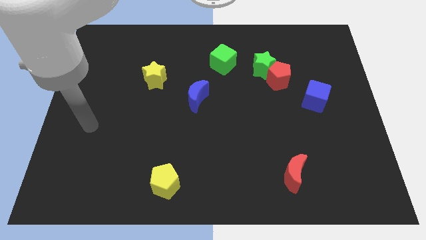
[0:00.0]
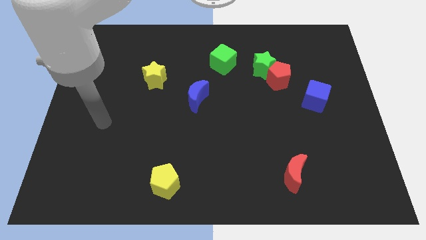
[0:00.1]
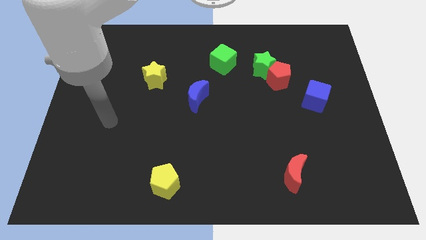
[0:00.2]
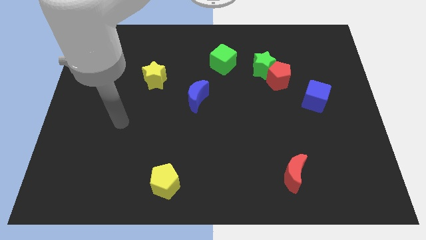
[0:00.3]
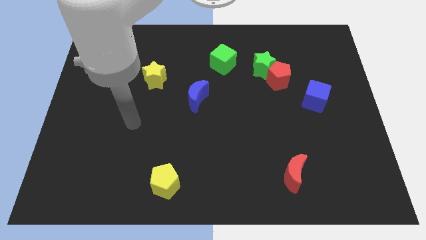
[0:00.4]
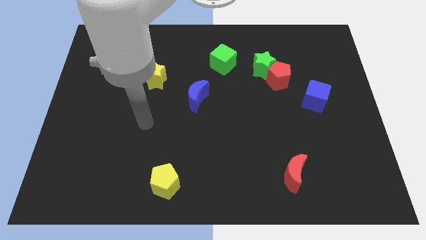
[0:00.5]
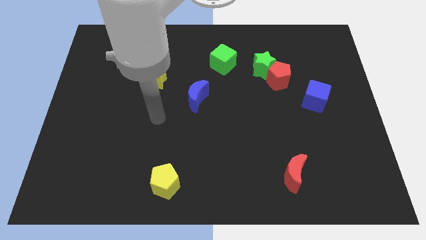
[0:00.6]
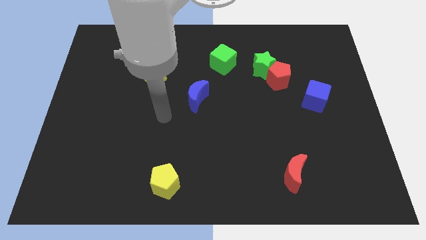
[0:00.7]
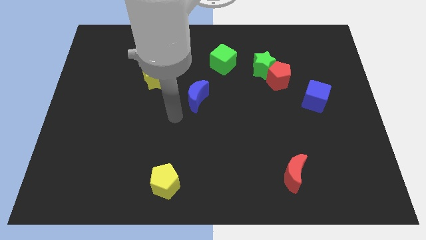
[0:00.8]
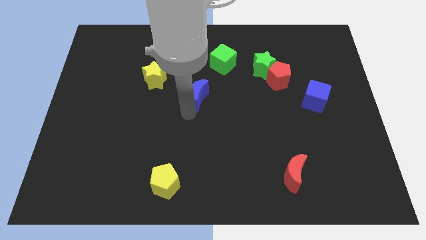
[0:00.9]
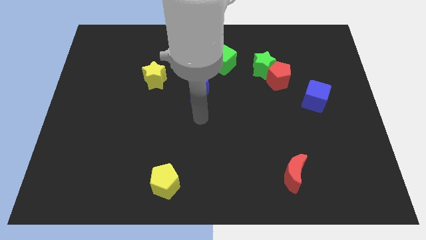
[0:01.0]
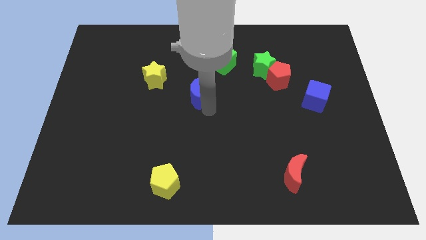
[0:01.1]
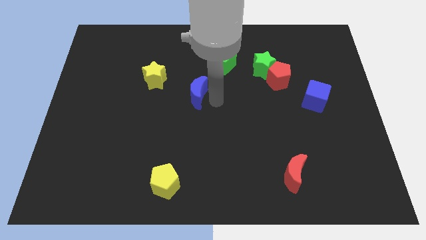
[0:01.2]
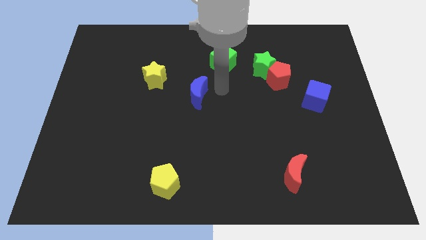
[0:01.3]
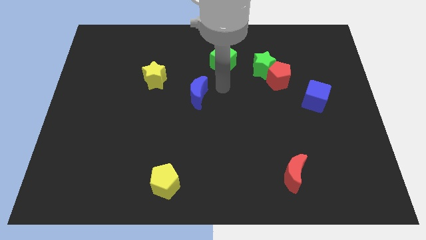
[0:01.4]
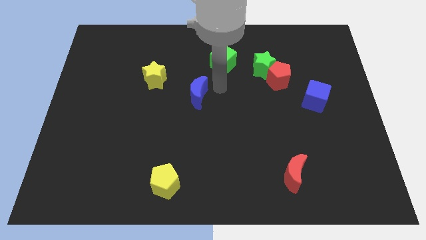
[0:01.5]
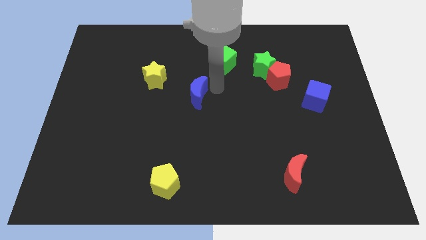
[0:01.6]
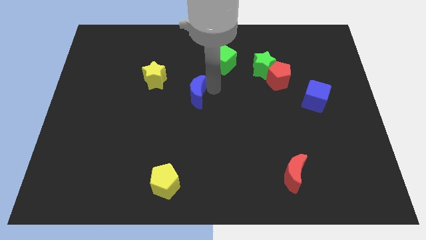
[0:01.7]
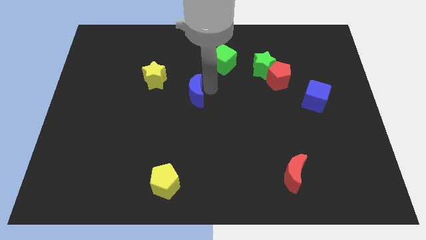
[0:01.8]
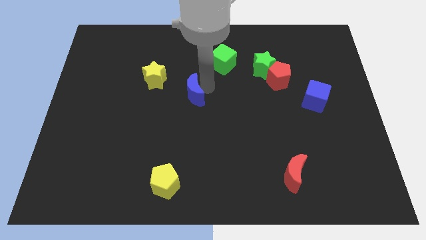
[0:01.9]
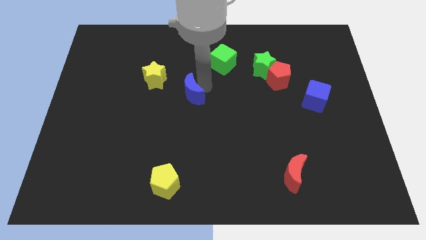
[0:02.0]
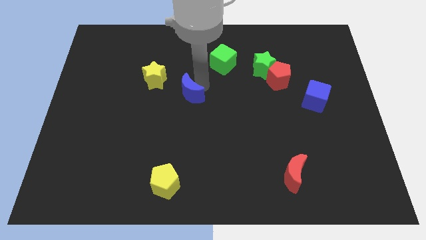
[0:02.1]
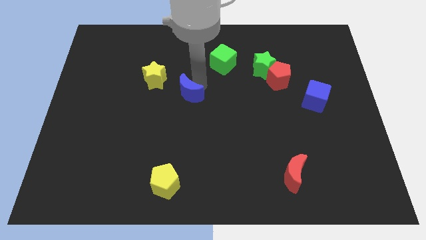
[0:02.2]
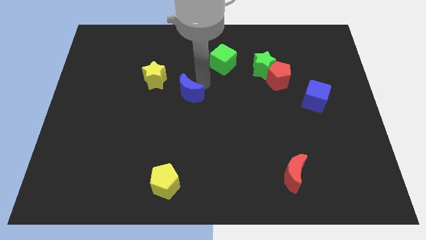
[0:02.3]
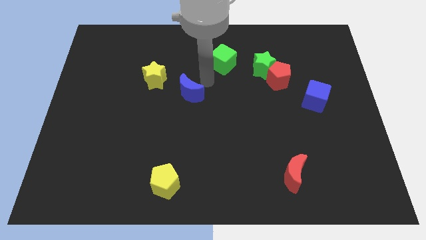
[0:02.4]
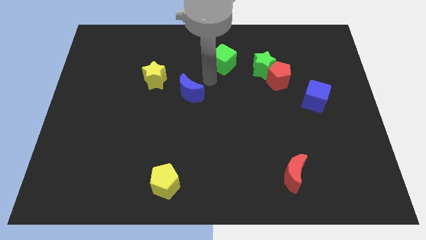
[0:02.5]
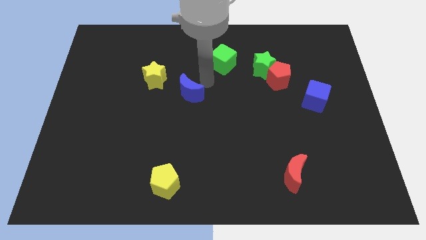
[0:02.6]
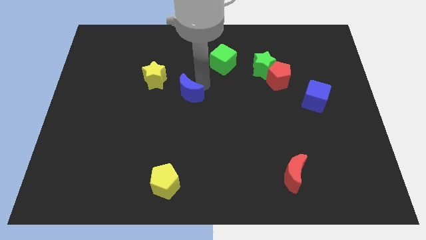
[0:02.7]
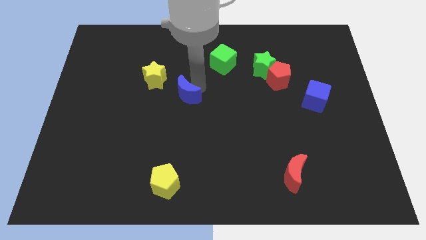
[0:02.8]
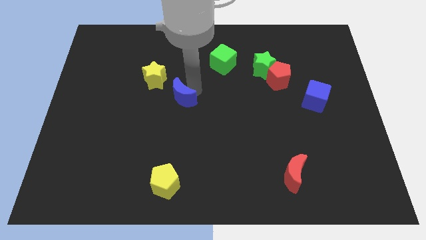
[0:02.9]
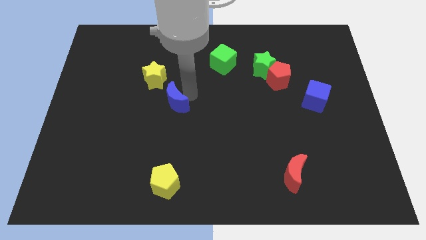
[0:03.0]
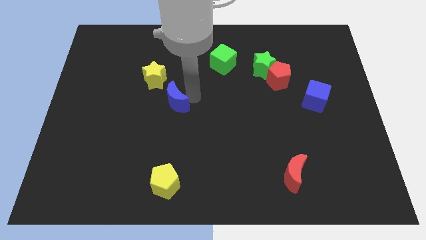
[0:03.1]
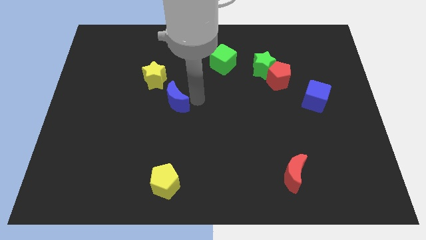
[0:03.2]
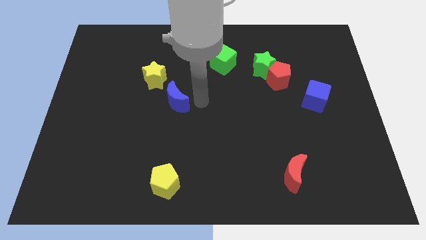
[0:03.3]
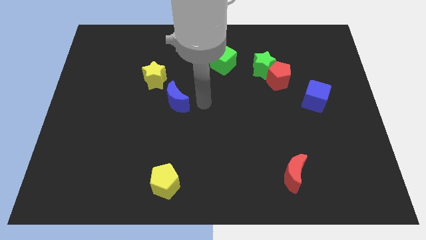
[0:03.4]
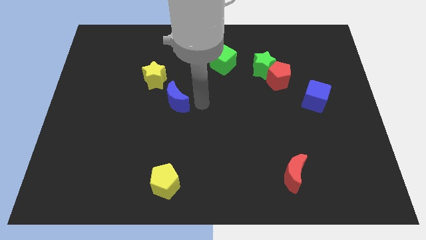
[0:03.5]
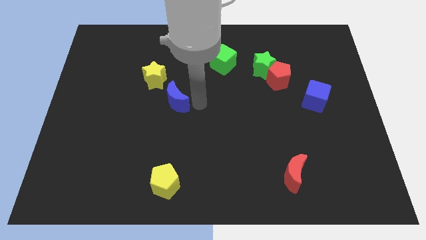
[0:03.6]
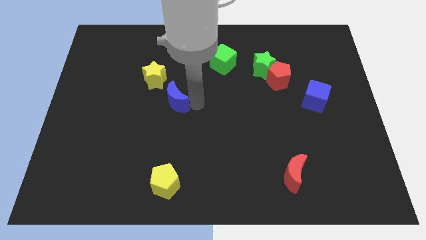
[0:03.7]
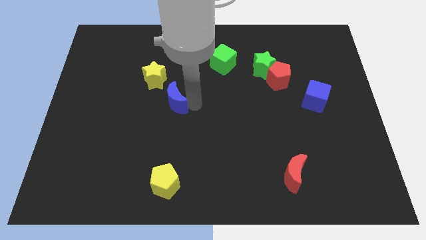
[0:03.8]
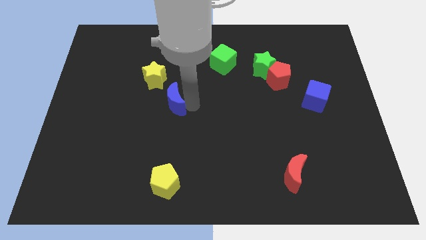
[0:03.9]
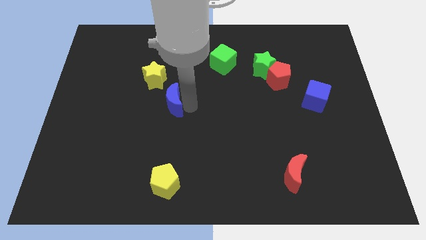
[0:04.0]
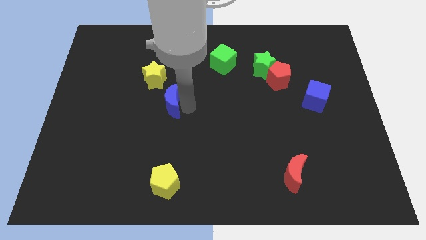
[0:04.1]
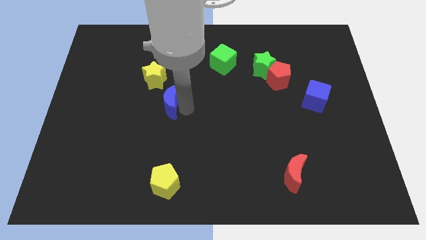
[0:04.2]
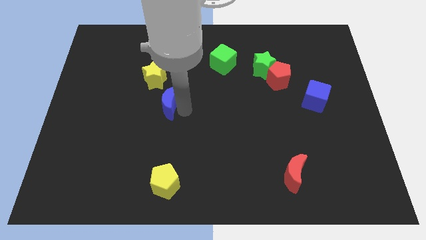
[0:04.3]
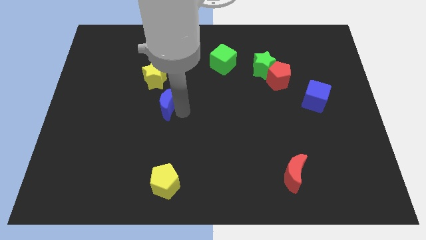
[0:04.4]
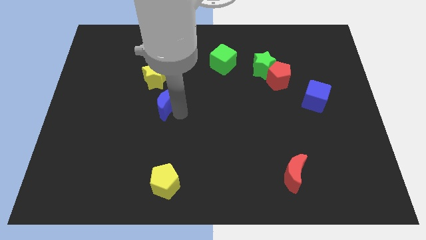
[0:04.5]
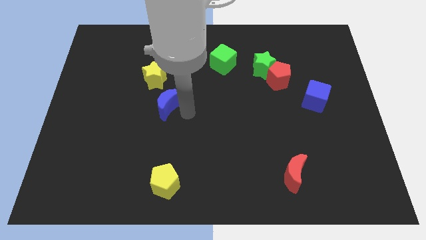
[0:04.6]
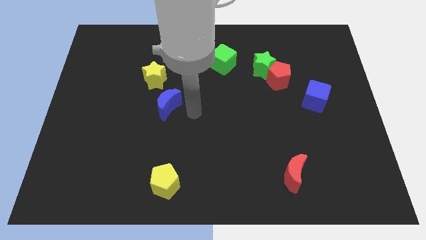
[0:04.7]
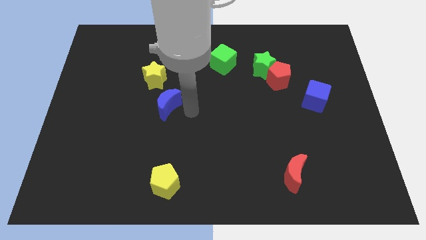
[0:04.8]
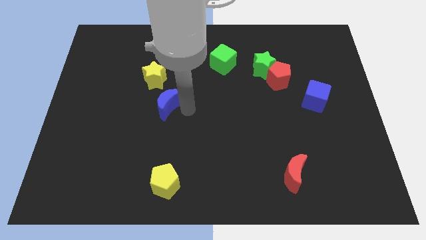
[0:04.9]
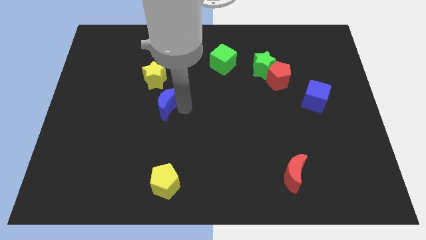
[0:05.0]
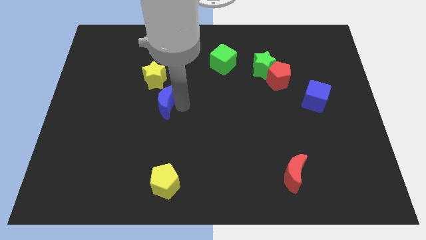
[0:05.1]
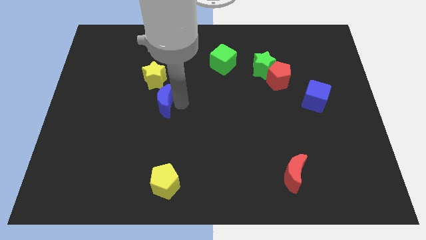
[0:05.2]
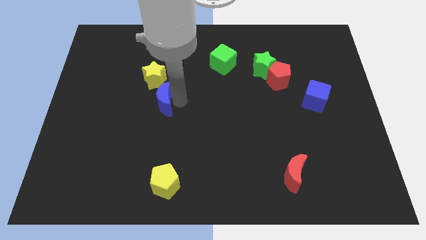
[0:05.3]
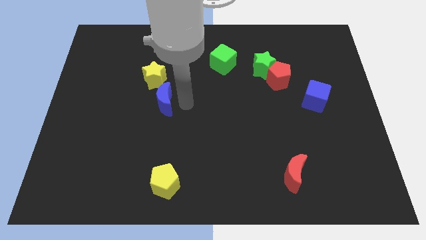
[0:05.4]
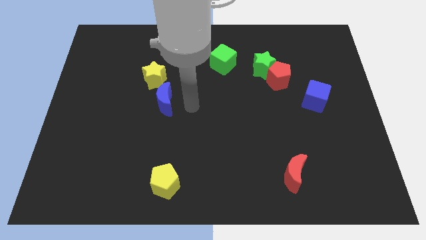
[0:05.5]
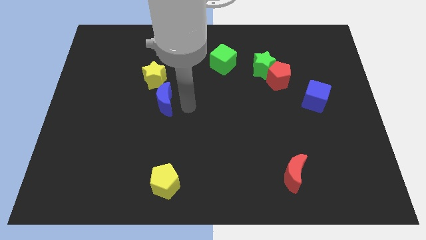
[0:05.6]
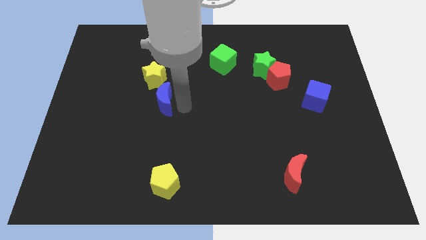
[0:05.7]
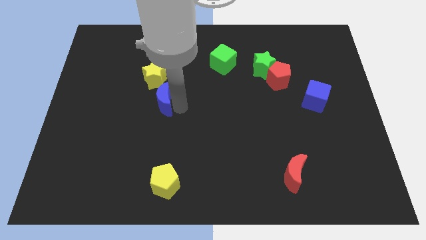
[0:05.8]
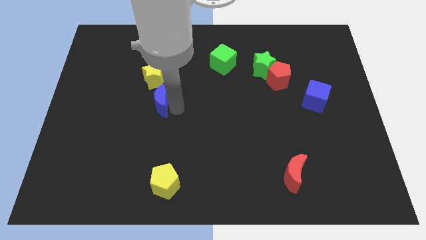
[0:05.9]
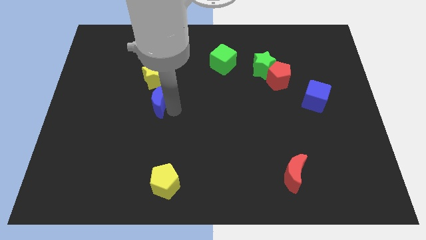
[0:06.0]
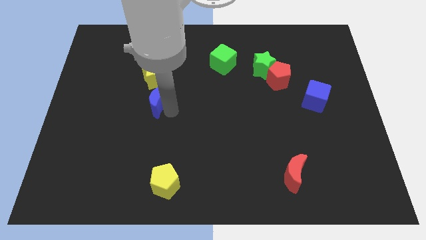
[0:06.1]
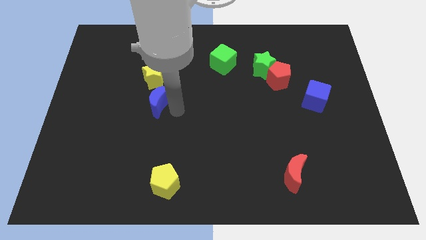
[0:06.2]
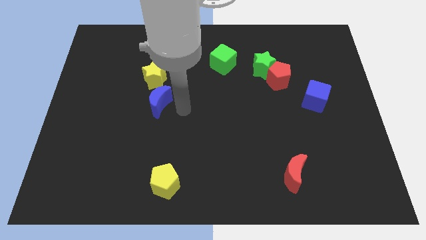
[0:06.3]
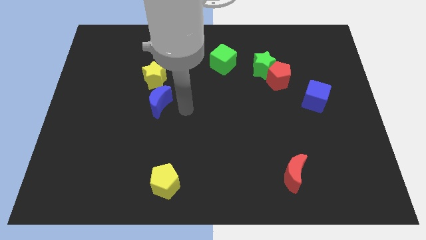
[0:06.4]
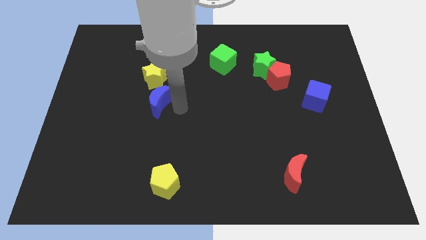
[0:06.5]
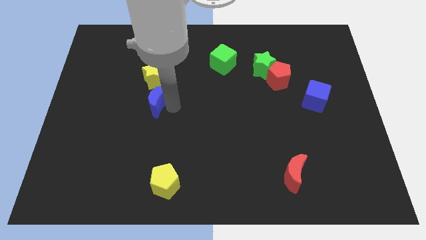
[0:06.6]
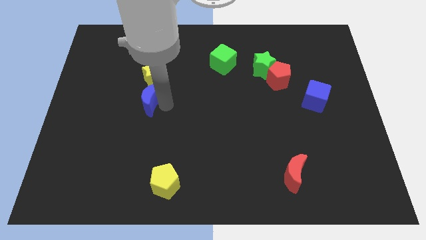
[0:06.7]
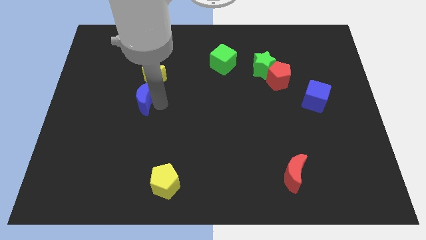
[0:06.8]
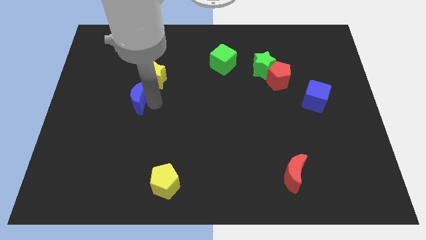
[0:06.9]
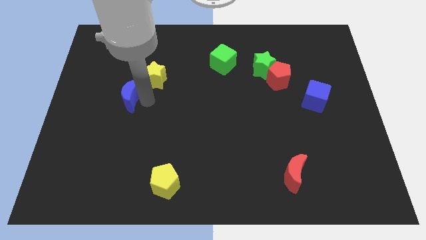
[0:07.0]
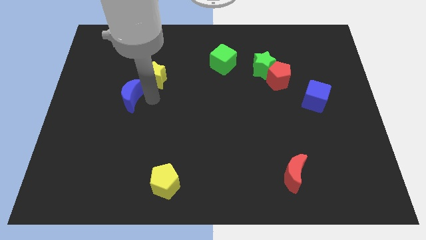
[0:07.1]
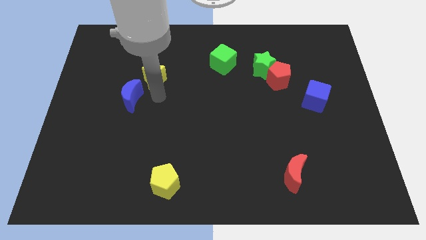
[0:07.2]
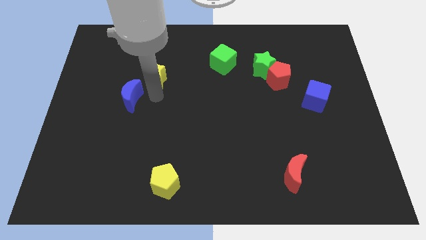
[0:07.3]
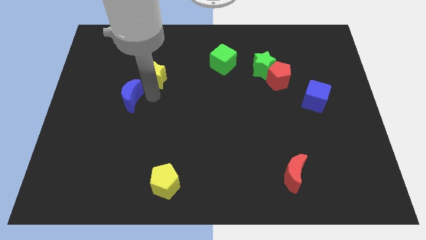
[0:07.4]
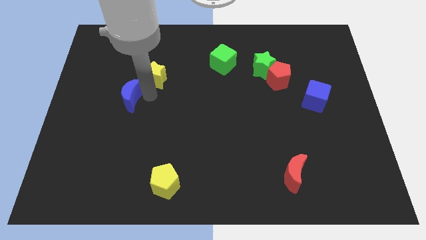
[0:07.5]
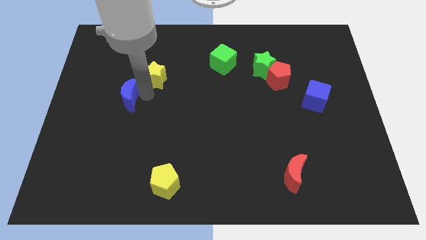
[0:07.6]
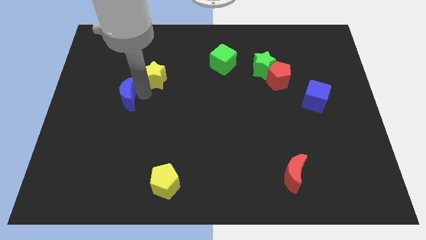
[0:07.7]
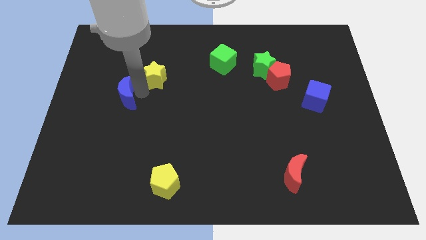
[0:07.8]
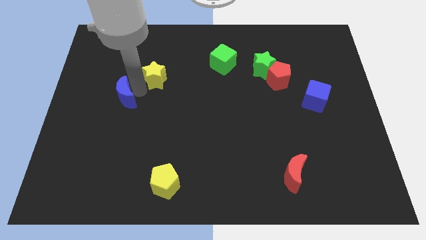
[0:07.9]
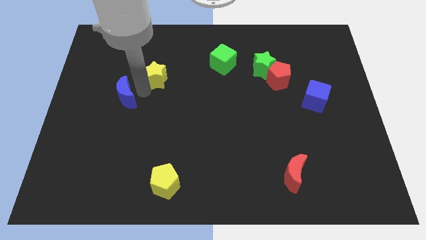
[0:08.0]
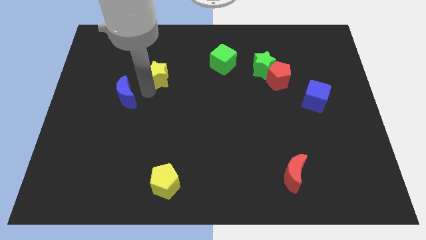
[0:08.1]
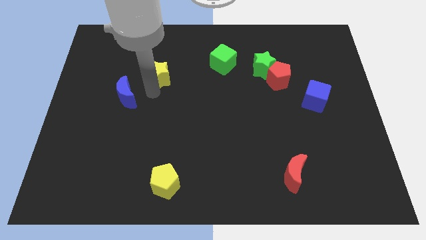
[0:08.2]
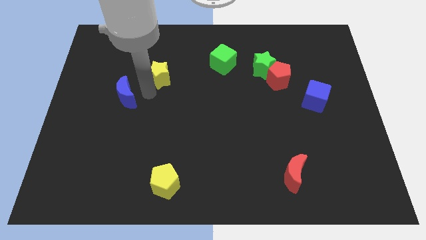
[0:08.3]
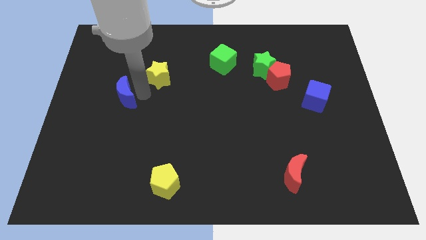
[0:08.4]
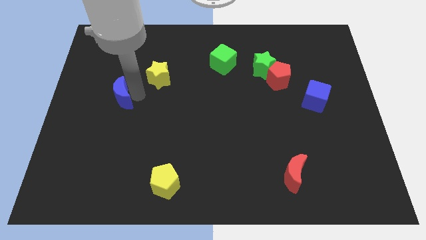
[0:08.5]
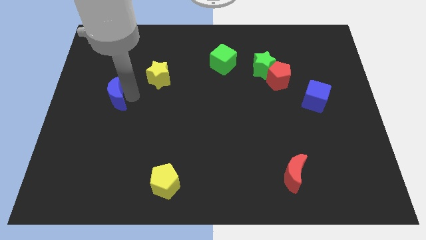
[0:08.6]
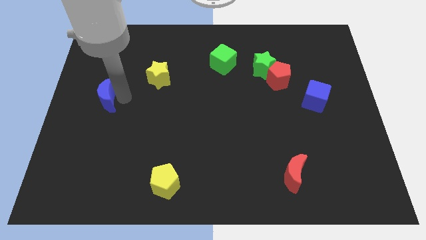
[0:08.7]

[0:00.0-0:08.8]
push the blue moon to the center left
